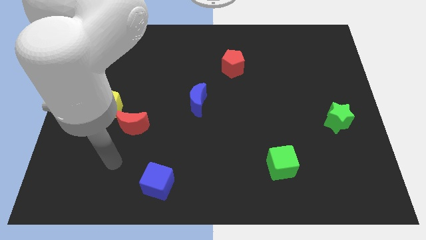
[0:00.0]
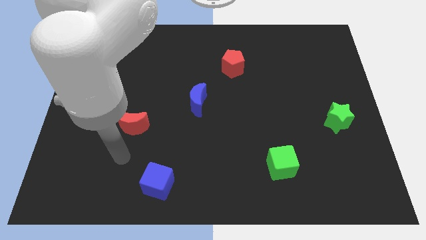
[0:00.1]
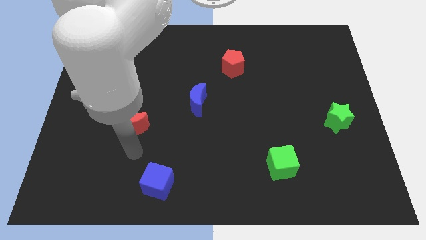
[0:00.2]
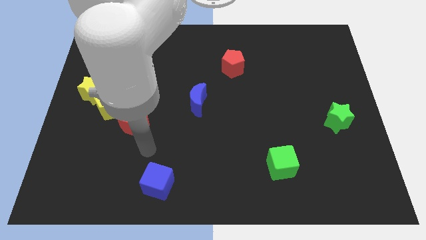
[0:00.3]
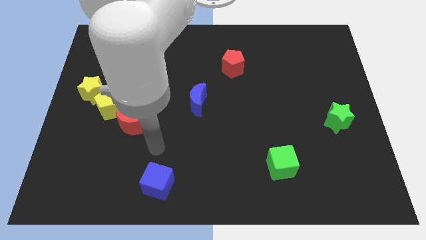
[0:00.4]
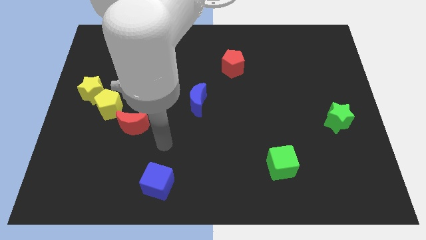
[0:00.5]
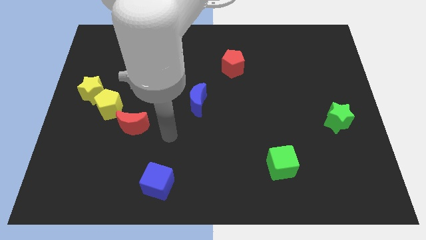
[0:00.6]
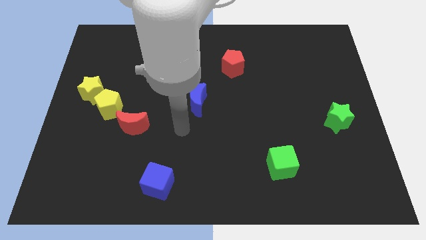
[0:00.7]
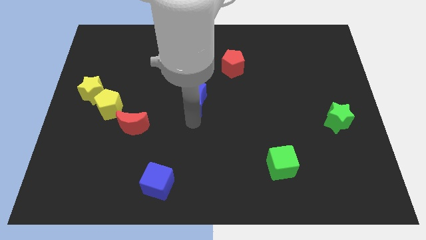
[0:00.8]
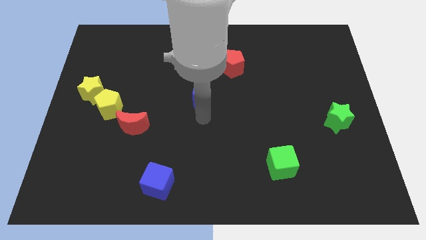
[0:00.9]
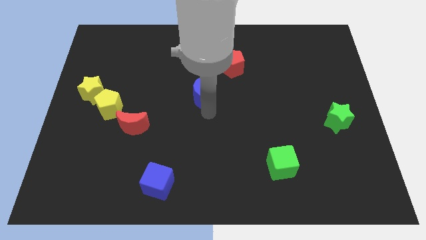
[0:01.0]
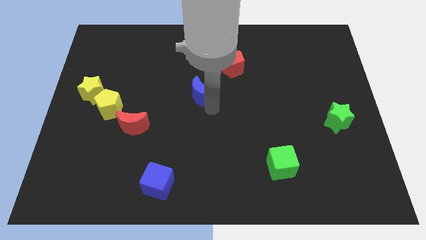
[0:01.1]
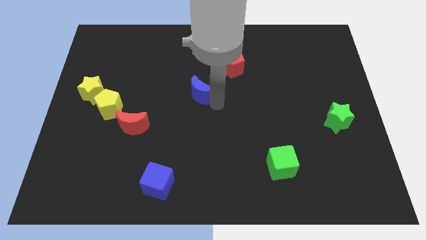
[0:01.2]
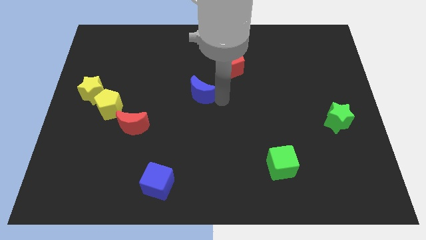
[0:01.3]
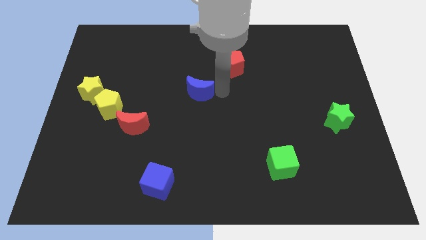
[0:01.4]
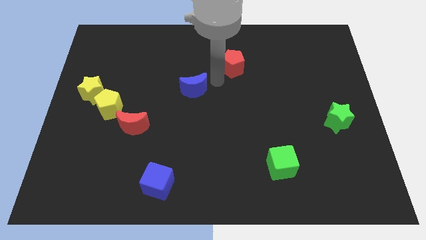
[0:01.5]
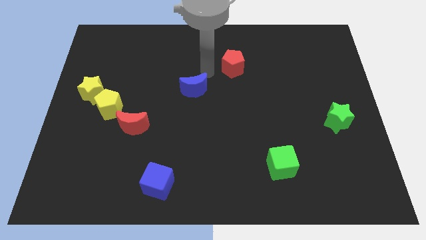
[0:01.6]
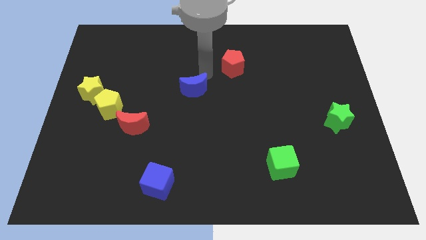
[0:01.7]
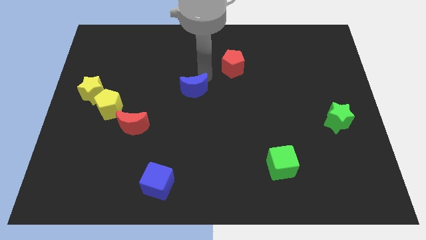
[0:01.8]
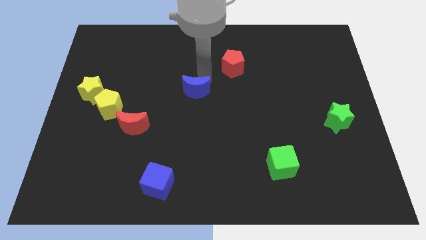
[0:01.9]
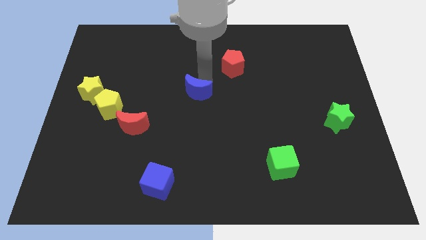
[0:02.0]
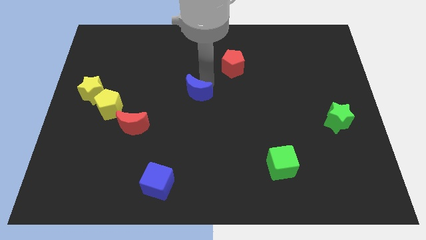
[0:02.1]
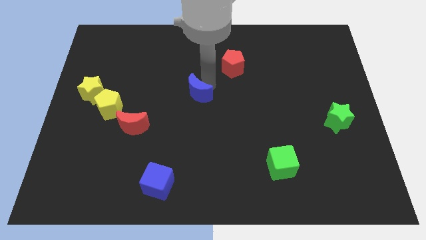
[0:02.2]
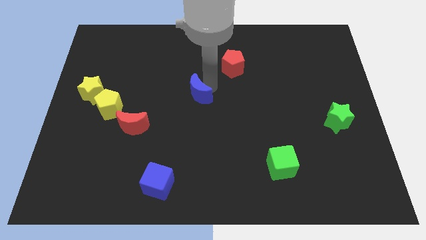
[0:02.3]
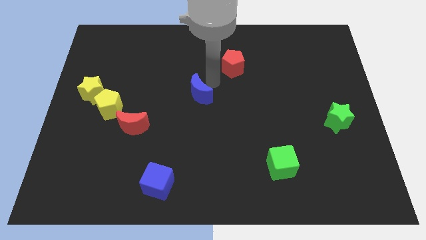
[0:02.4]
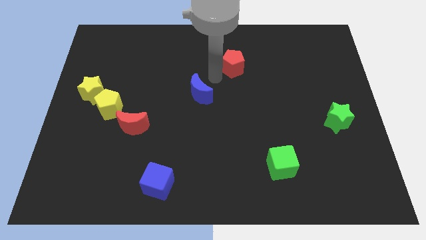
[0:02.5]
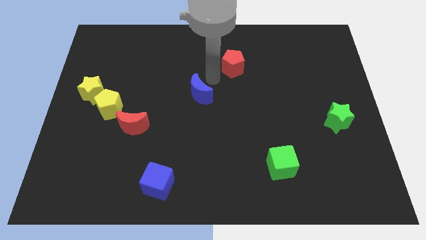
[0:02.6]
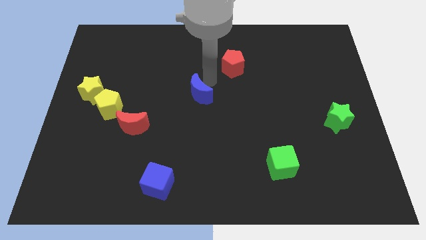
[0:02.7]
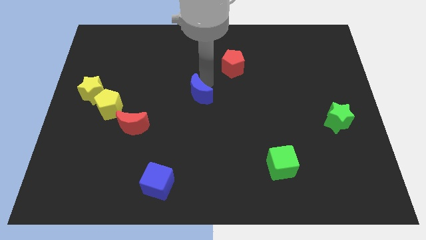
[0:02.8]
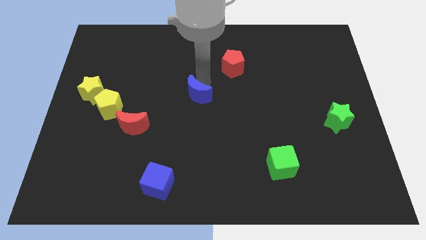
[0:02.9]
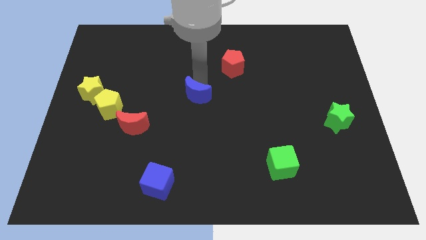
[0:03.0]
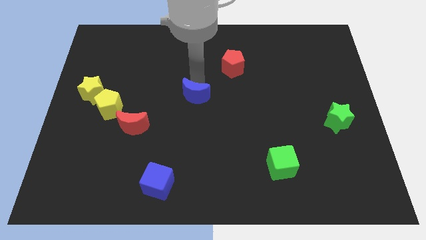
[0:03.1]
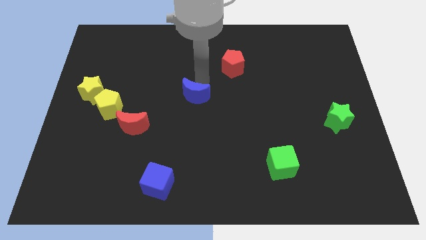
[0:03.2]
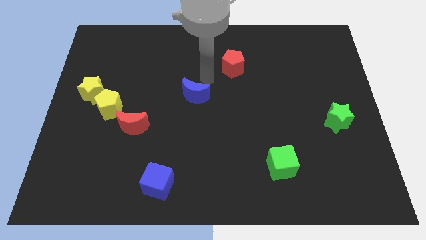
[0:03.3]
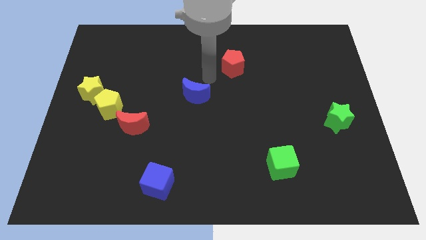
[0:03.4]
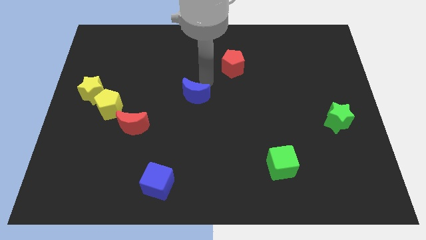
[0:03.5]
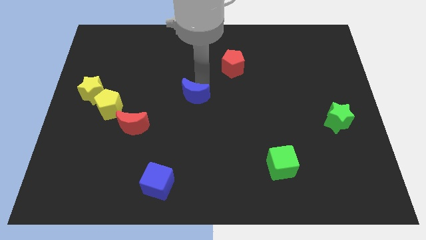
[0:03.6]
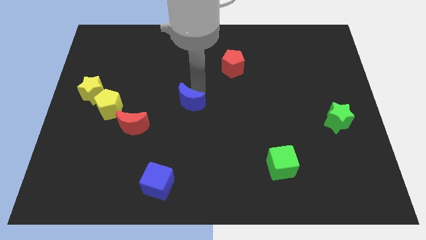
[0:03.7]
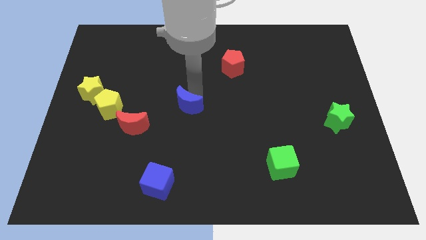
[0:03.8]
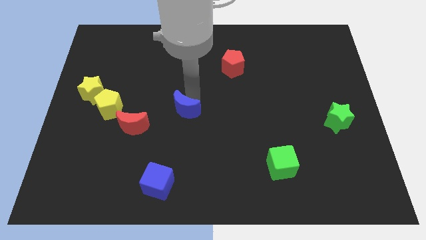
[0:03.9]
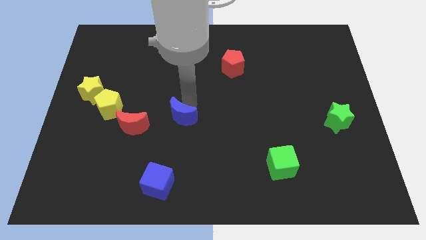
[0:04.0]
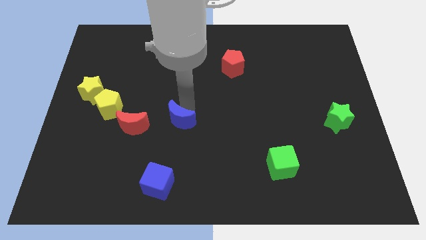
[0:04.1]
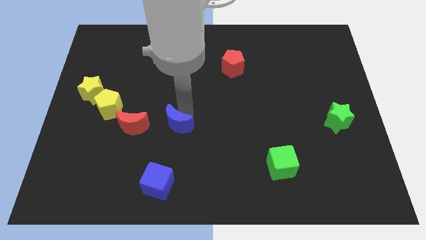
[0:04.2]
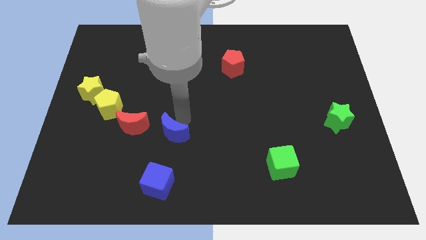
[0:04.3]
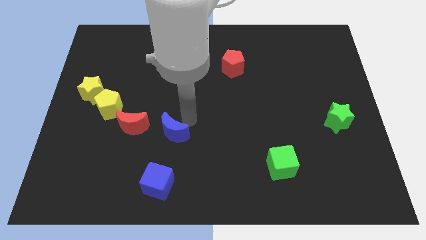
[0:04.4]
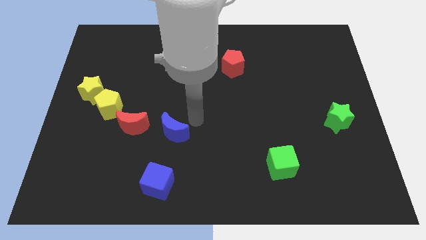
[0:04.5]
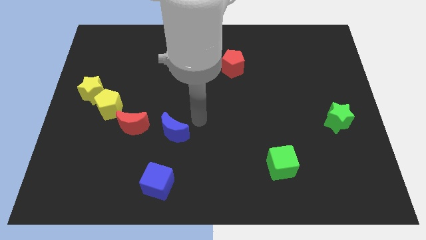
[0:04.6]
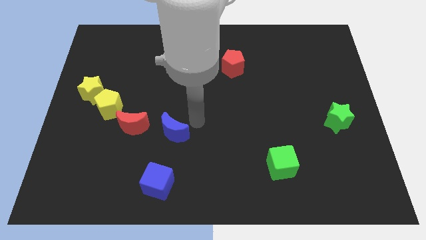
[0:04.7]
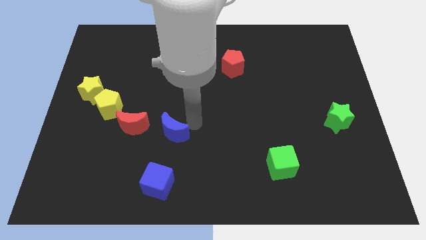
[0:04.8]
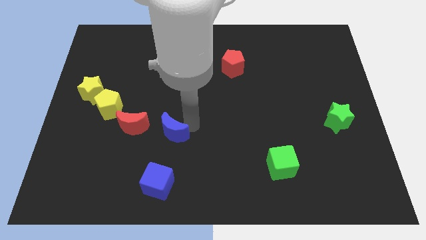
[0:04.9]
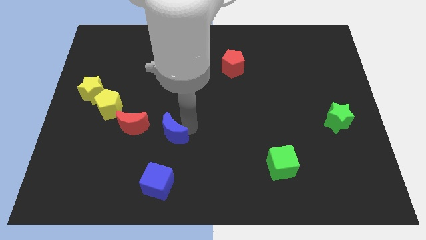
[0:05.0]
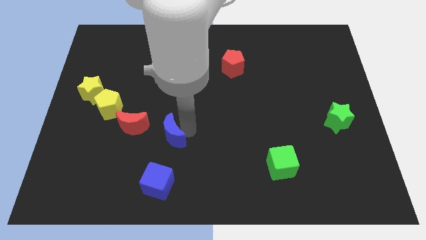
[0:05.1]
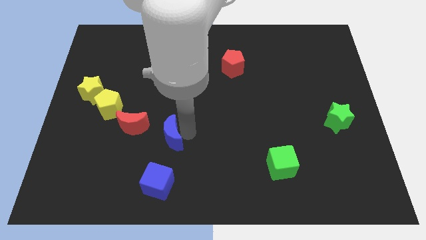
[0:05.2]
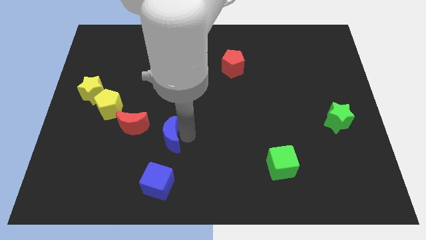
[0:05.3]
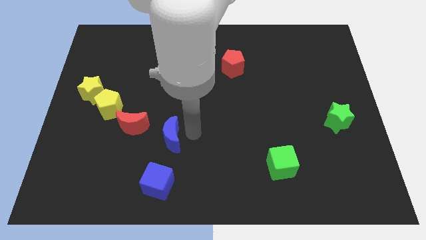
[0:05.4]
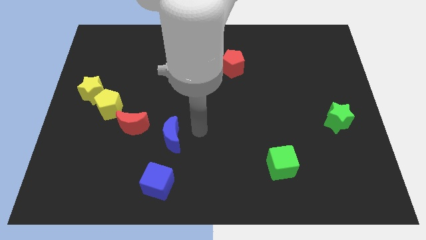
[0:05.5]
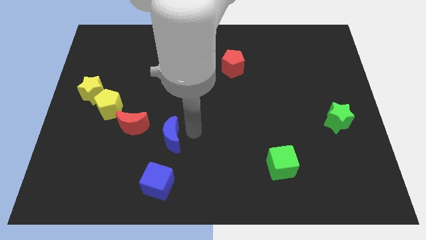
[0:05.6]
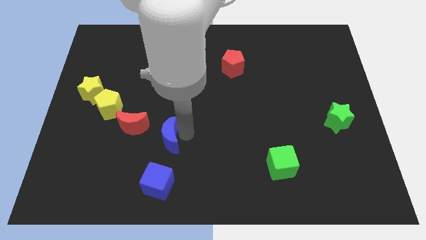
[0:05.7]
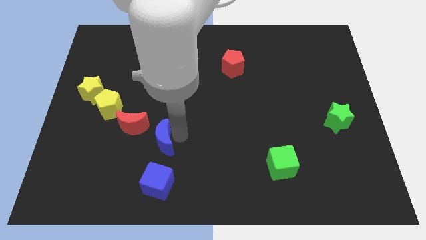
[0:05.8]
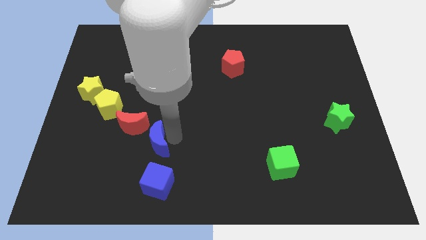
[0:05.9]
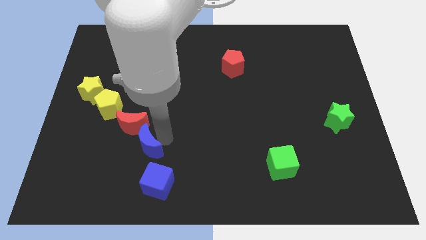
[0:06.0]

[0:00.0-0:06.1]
put the blue moon to the bottom side of the red moon

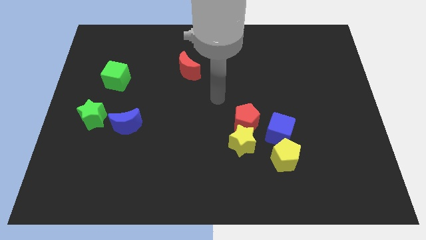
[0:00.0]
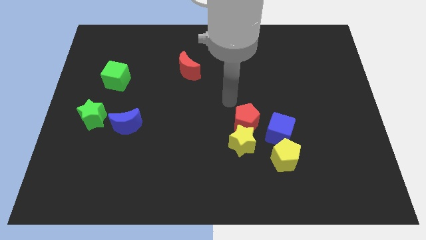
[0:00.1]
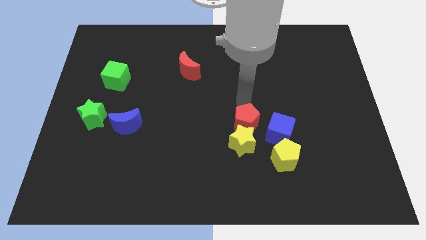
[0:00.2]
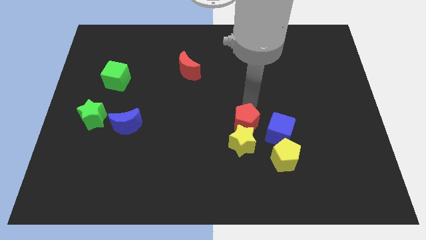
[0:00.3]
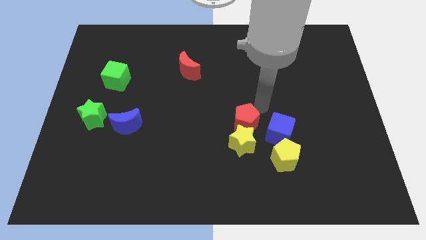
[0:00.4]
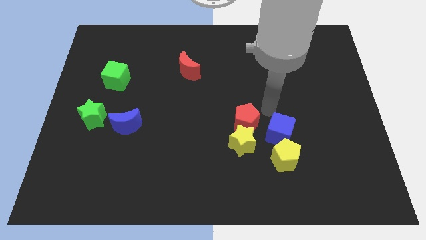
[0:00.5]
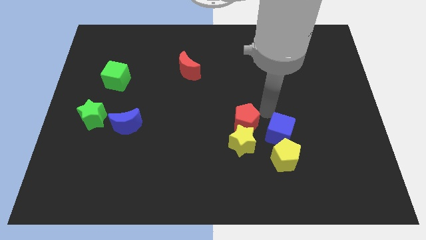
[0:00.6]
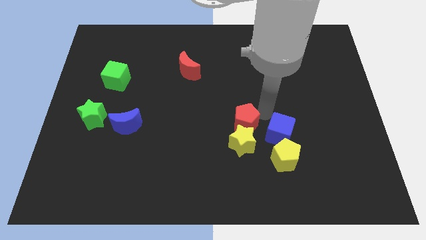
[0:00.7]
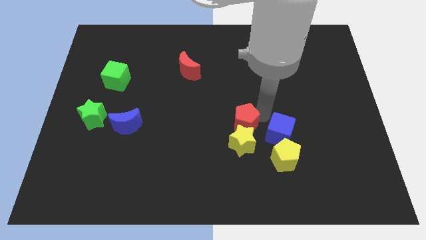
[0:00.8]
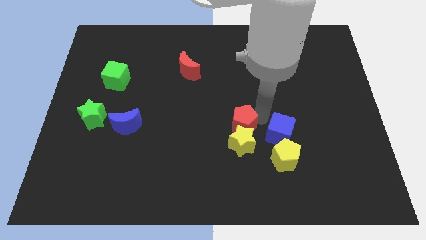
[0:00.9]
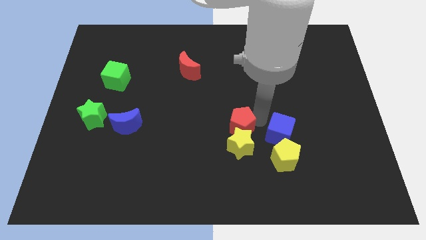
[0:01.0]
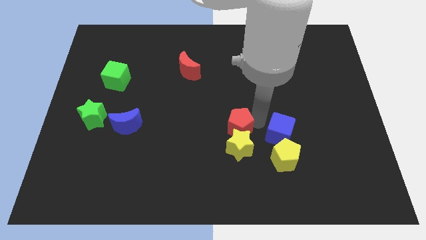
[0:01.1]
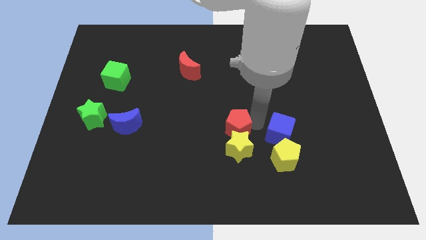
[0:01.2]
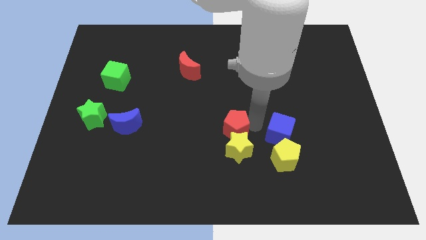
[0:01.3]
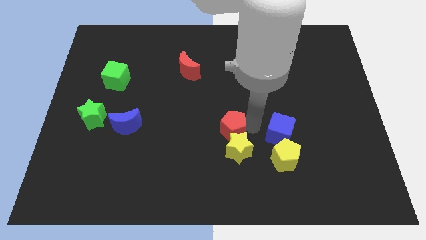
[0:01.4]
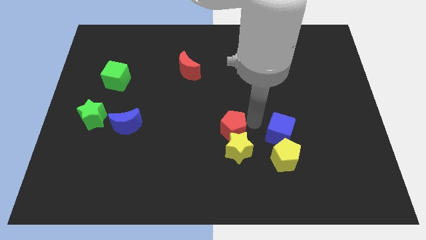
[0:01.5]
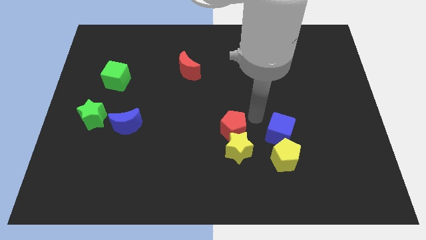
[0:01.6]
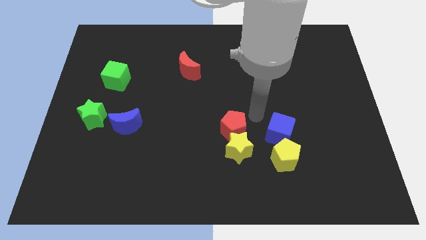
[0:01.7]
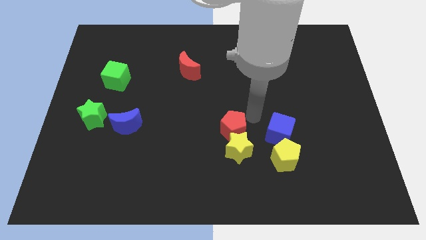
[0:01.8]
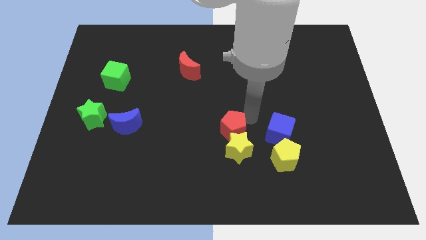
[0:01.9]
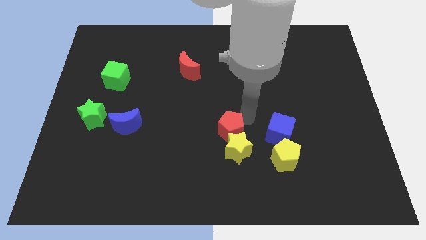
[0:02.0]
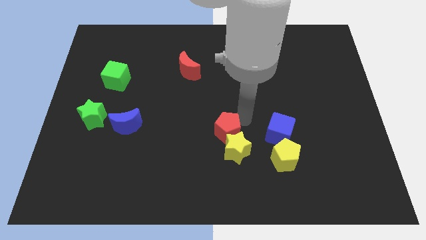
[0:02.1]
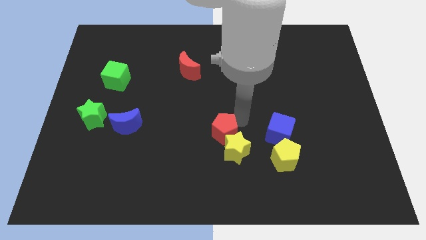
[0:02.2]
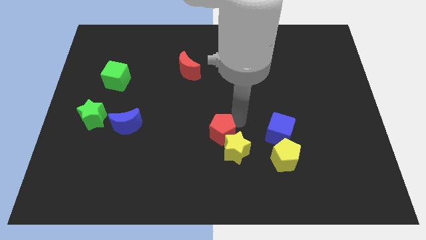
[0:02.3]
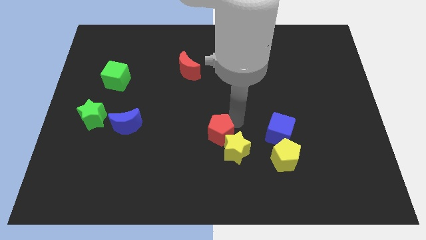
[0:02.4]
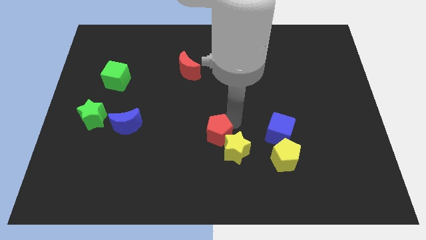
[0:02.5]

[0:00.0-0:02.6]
move the red pentagon just left of the yellow star
